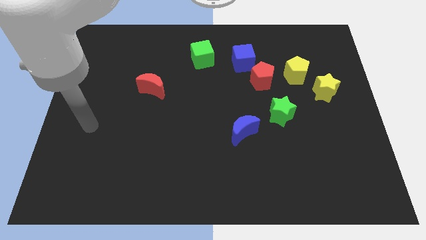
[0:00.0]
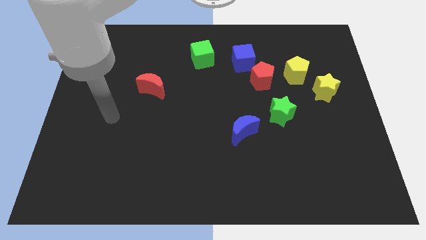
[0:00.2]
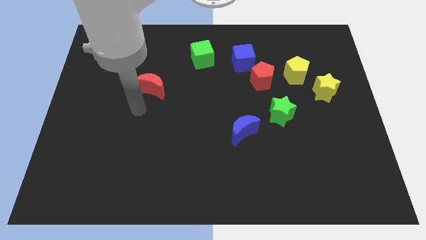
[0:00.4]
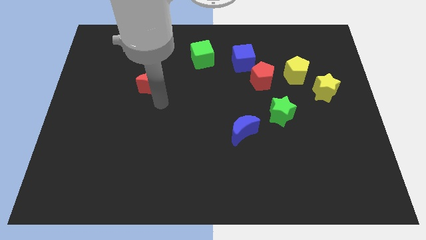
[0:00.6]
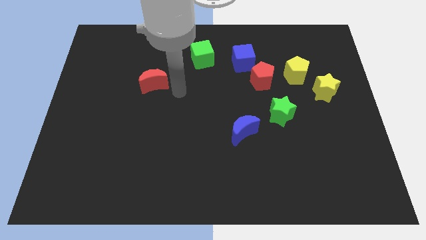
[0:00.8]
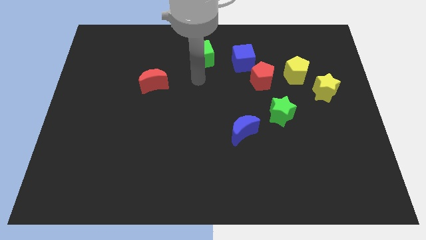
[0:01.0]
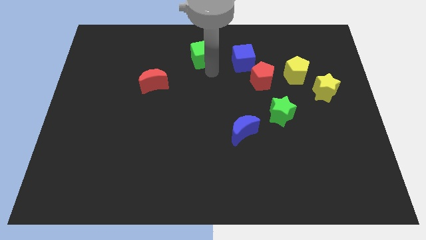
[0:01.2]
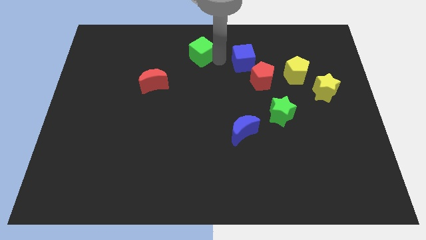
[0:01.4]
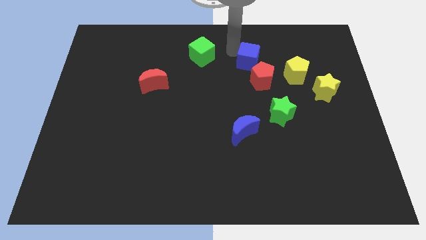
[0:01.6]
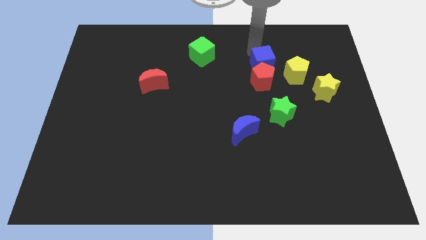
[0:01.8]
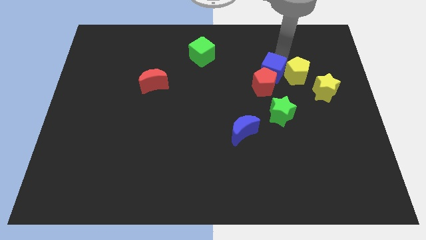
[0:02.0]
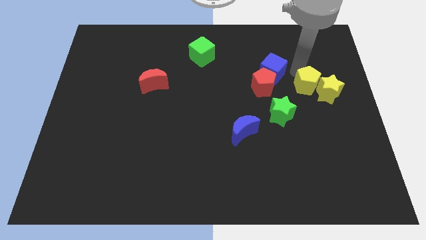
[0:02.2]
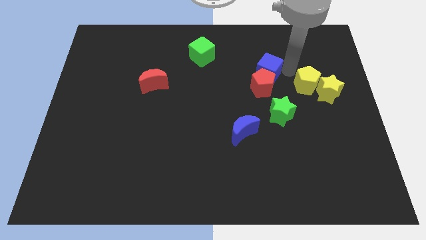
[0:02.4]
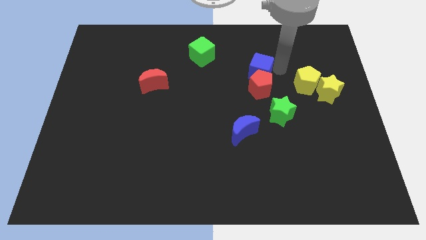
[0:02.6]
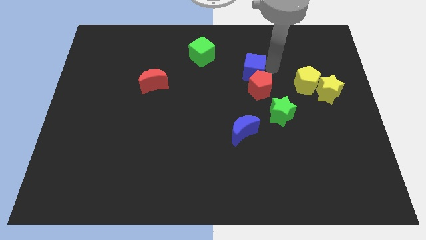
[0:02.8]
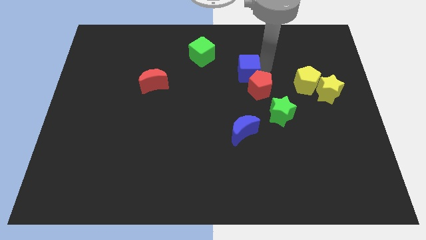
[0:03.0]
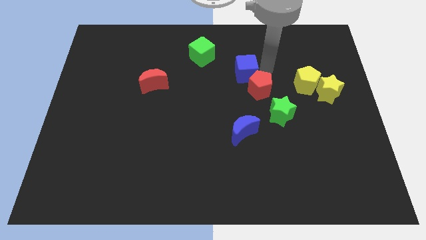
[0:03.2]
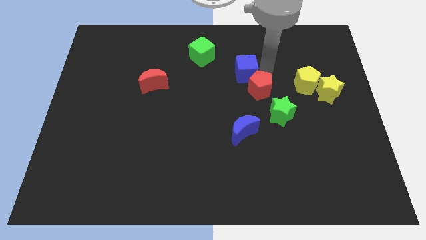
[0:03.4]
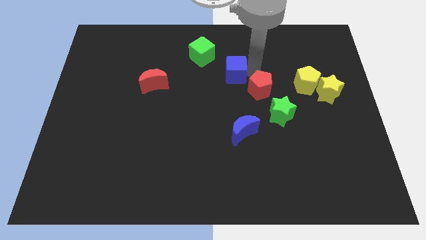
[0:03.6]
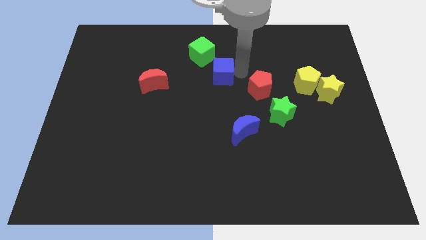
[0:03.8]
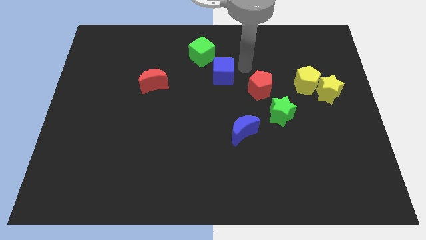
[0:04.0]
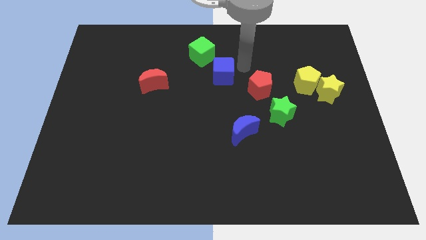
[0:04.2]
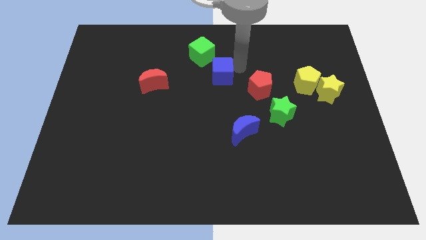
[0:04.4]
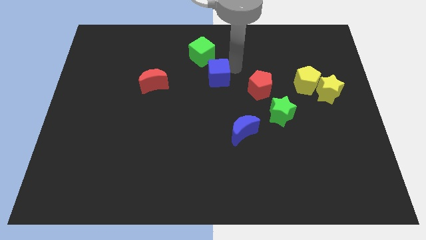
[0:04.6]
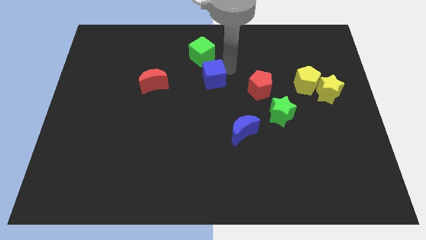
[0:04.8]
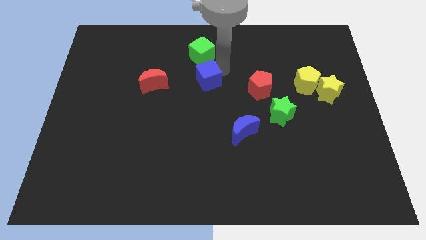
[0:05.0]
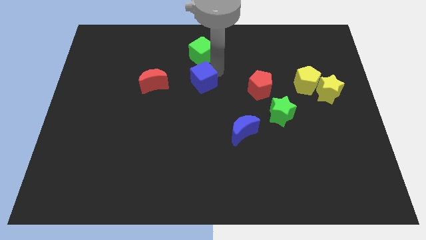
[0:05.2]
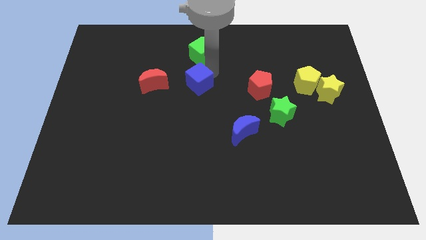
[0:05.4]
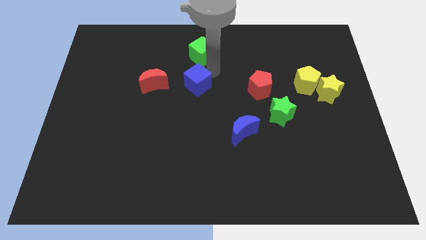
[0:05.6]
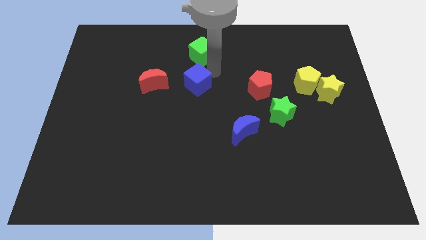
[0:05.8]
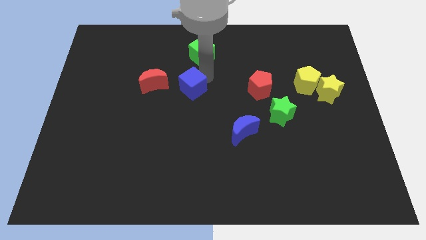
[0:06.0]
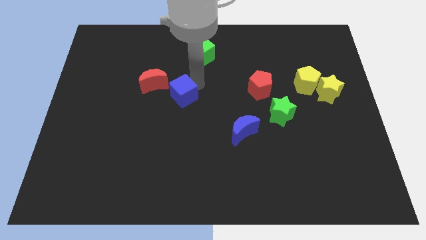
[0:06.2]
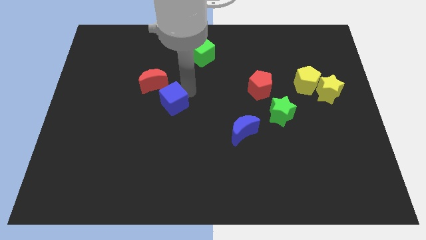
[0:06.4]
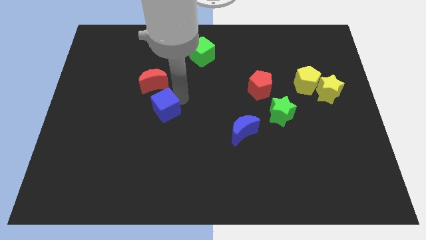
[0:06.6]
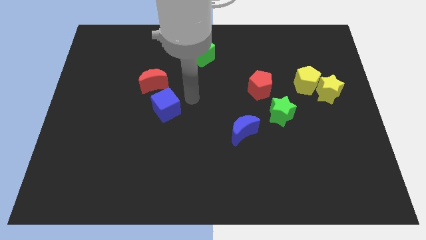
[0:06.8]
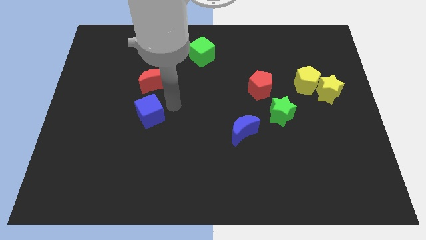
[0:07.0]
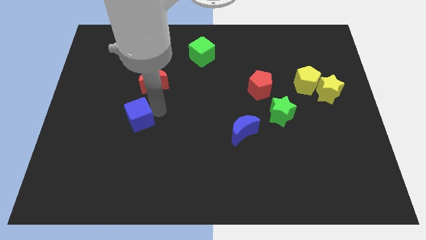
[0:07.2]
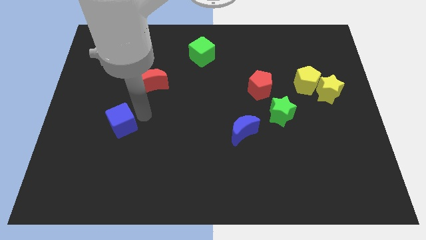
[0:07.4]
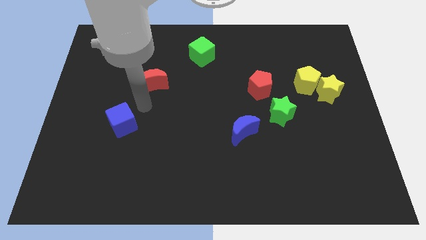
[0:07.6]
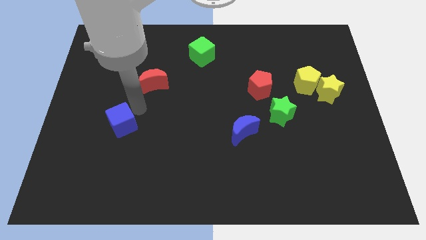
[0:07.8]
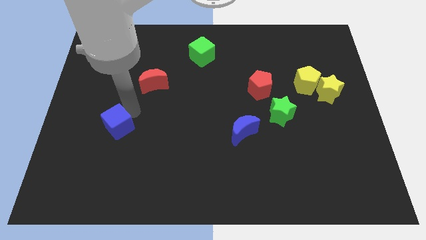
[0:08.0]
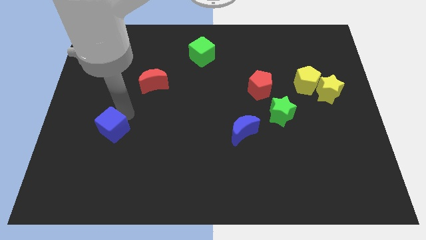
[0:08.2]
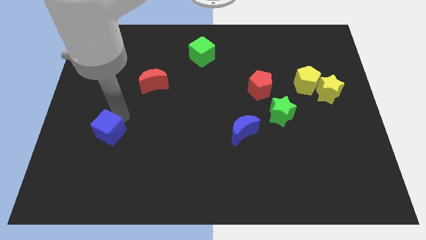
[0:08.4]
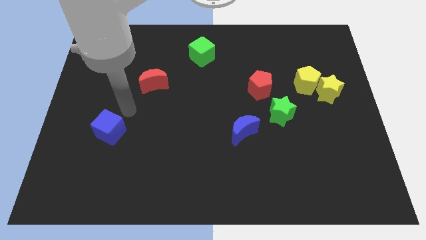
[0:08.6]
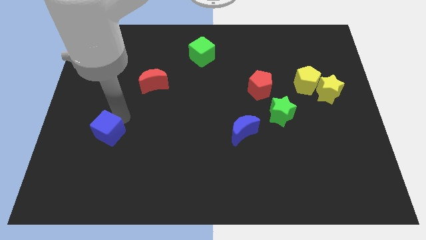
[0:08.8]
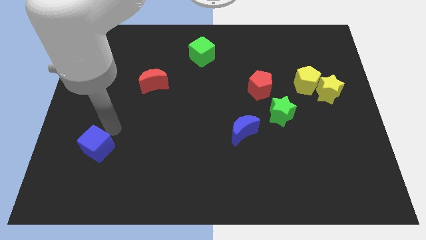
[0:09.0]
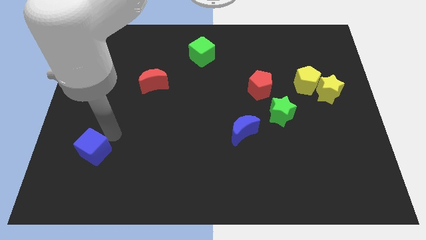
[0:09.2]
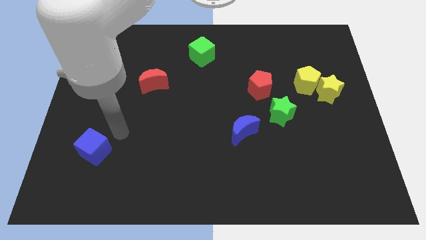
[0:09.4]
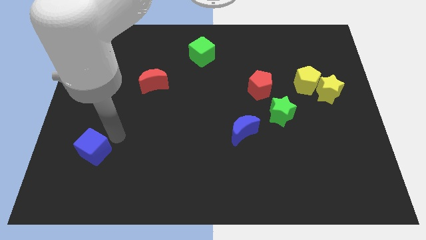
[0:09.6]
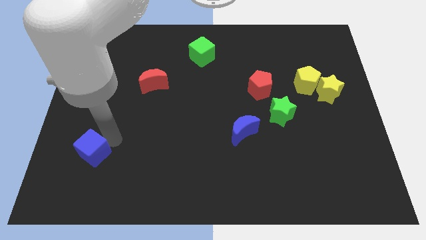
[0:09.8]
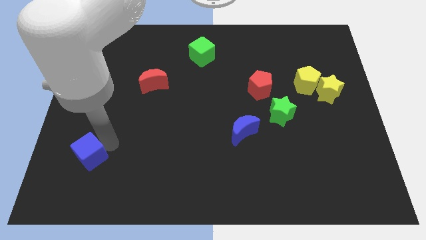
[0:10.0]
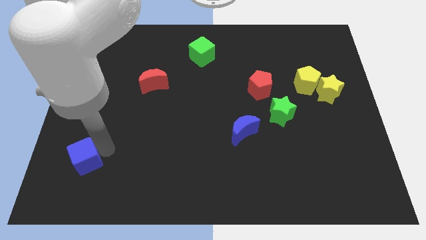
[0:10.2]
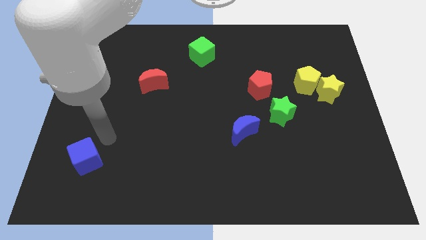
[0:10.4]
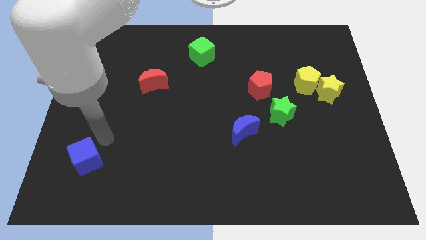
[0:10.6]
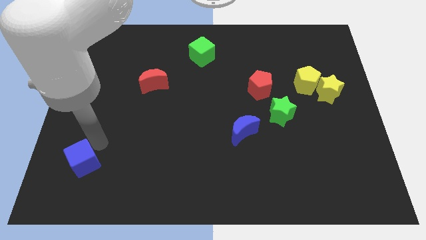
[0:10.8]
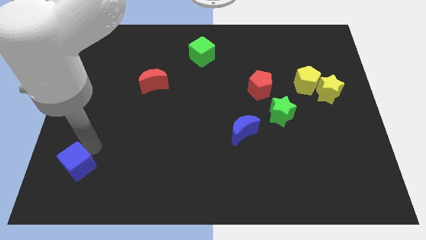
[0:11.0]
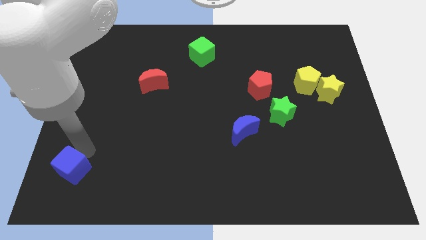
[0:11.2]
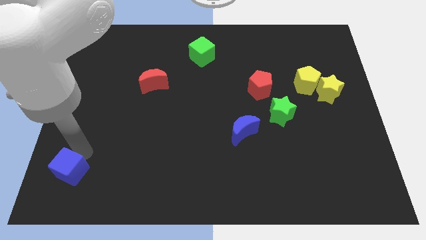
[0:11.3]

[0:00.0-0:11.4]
move the blue cube to the bottom left corner

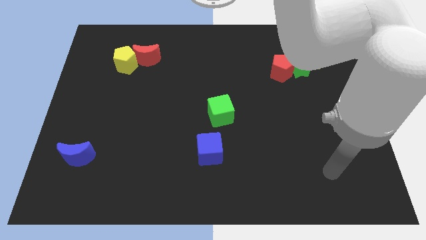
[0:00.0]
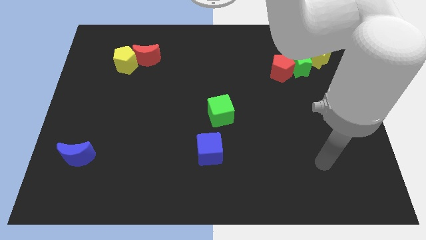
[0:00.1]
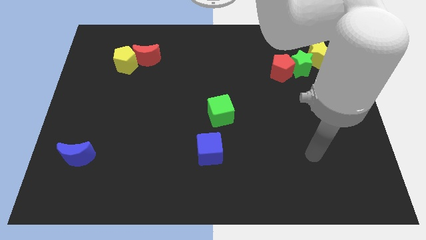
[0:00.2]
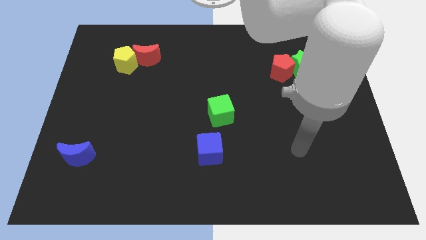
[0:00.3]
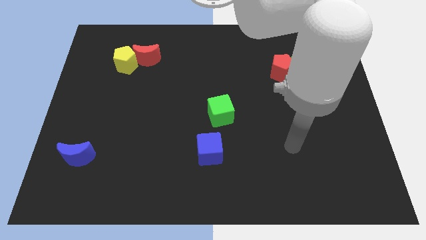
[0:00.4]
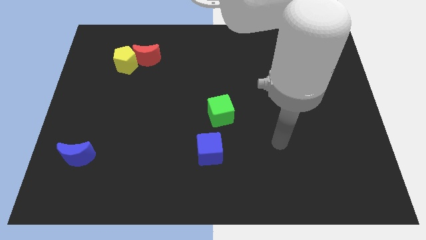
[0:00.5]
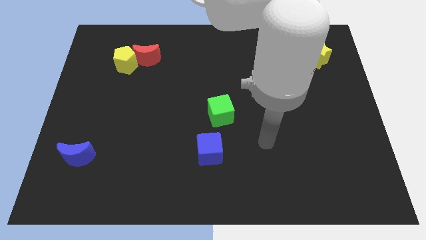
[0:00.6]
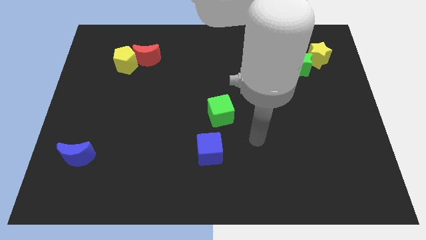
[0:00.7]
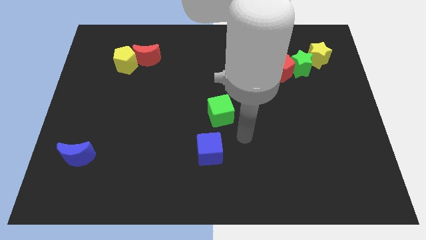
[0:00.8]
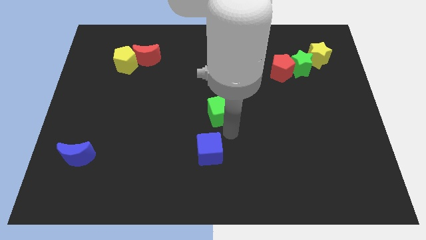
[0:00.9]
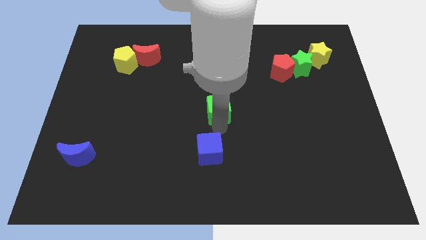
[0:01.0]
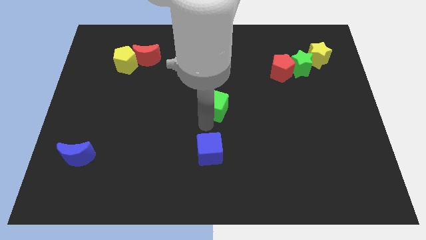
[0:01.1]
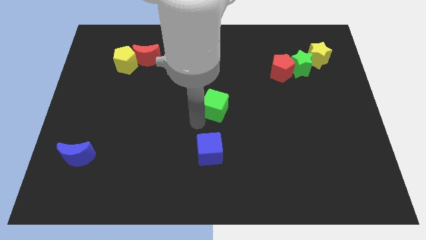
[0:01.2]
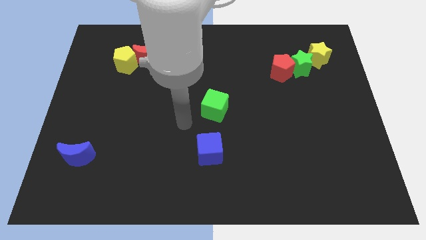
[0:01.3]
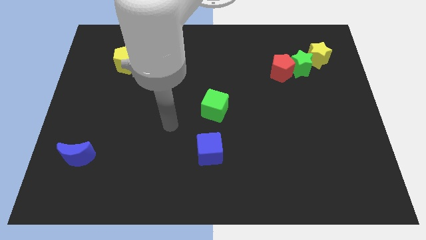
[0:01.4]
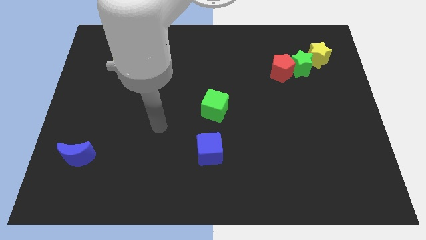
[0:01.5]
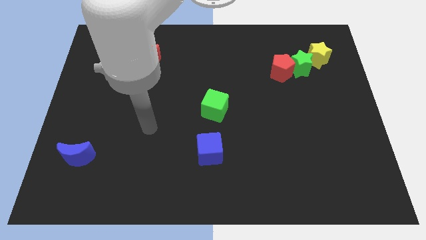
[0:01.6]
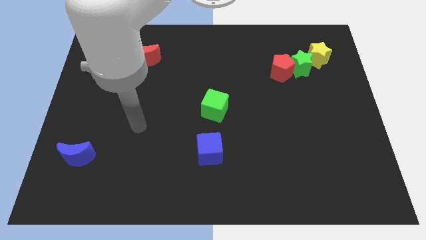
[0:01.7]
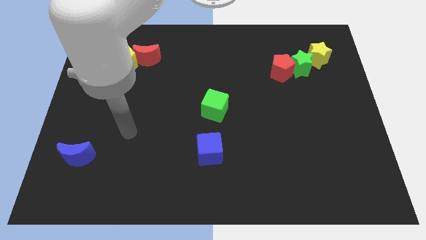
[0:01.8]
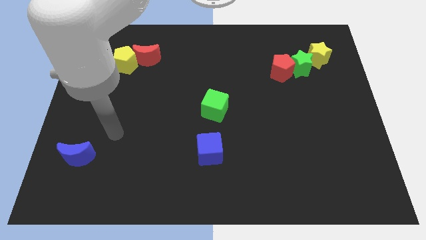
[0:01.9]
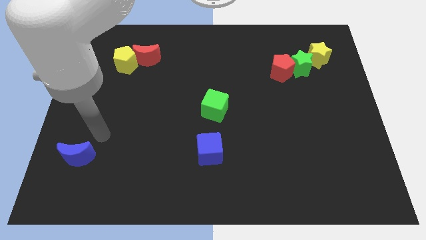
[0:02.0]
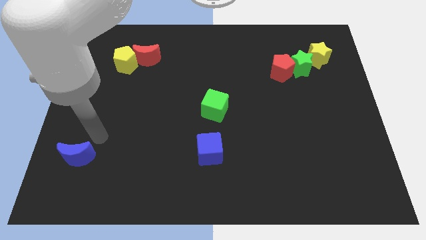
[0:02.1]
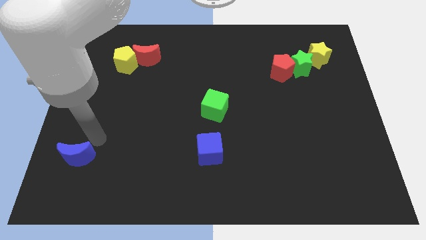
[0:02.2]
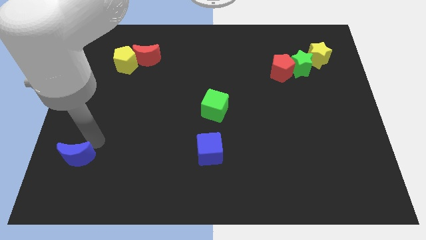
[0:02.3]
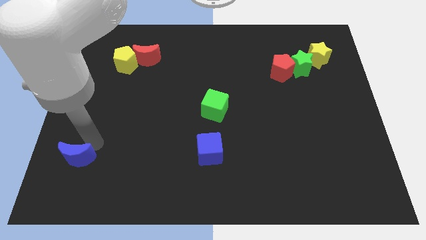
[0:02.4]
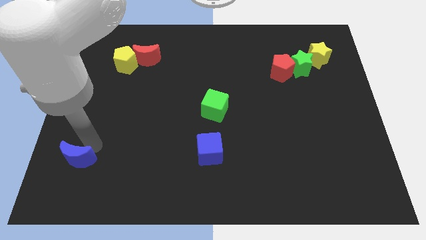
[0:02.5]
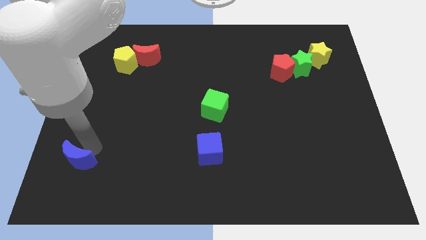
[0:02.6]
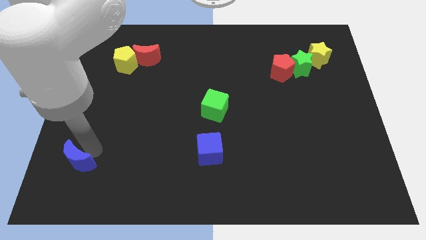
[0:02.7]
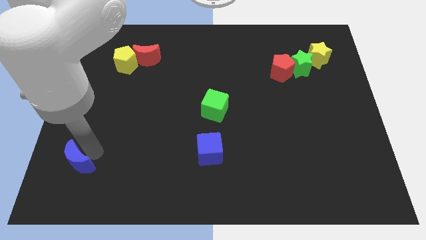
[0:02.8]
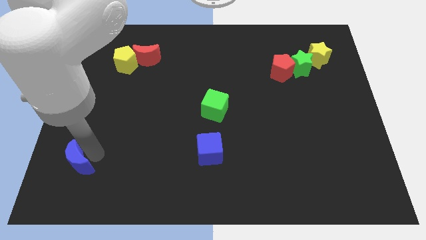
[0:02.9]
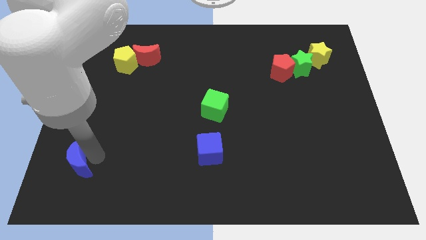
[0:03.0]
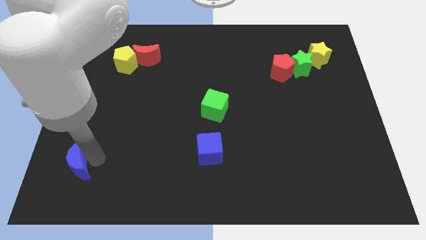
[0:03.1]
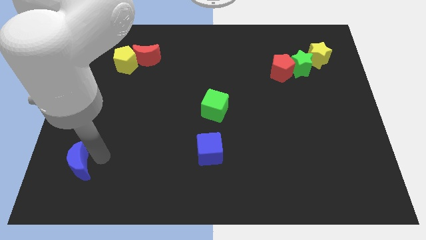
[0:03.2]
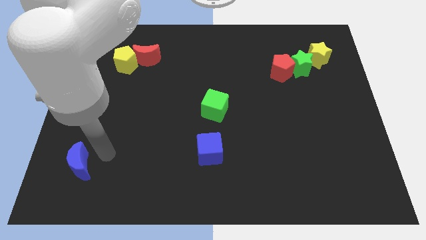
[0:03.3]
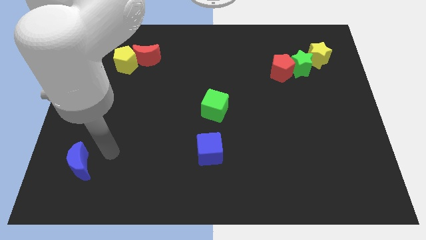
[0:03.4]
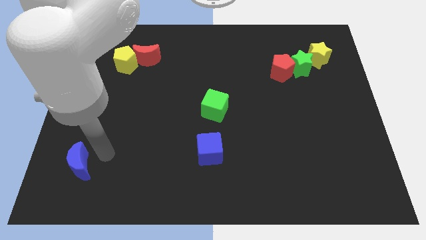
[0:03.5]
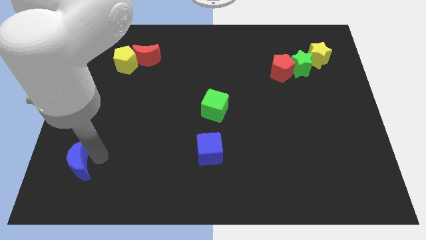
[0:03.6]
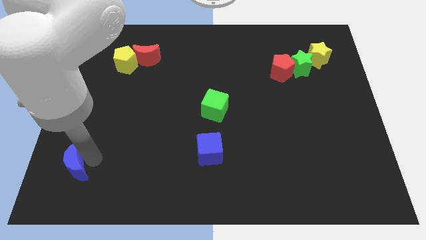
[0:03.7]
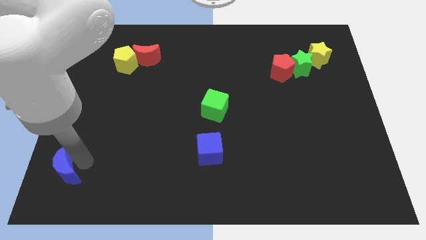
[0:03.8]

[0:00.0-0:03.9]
put the blue moon to the lower left corner
